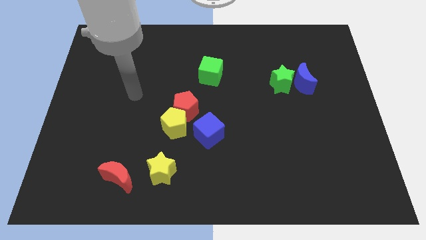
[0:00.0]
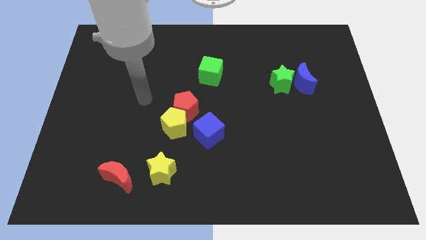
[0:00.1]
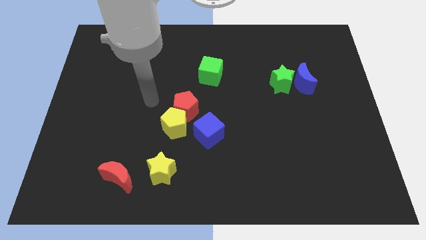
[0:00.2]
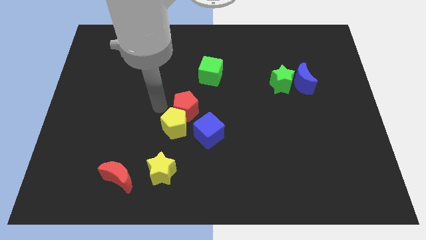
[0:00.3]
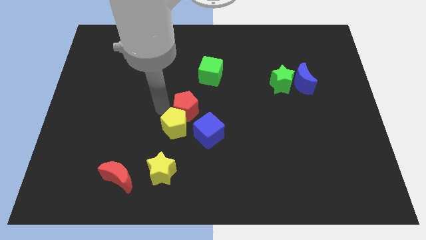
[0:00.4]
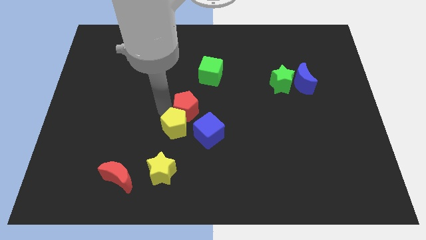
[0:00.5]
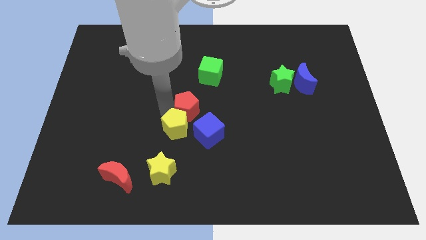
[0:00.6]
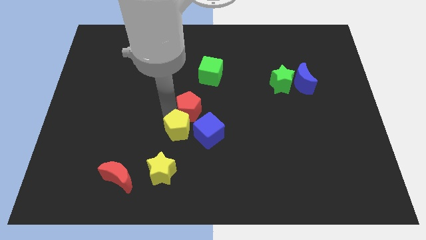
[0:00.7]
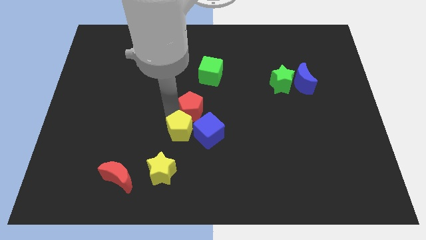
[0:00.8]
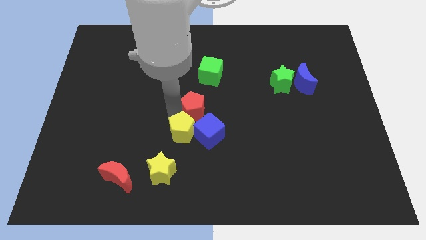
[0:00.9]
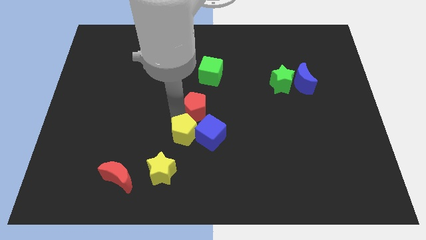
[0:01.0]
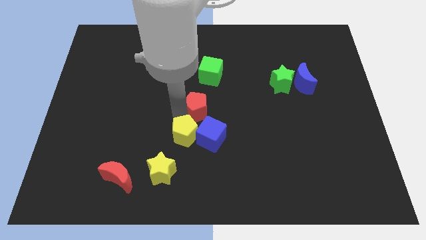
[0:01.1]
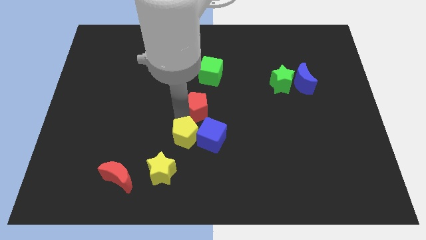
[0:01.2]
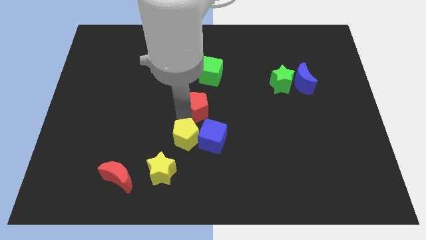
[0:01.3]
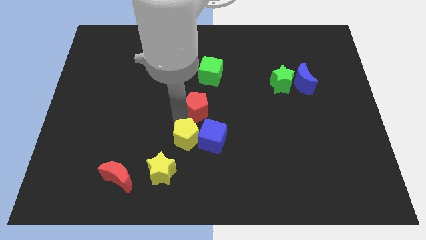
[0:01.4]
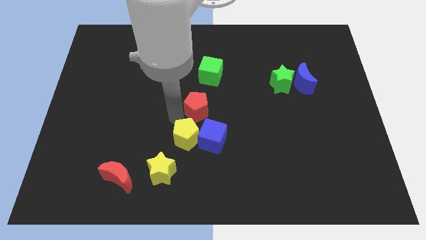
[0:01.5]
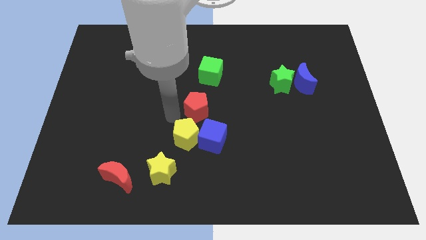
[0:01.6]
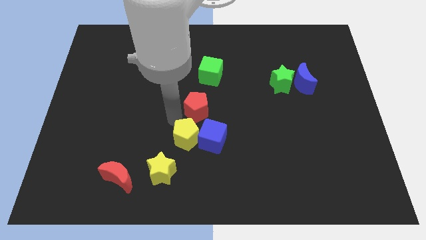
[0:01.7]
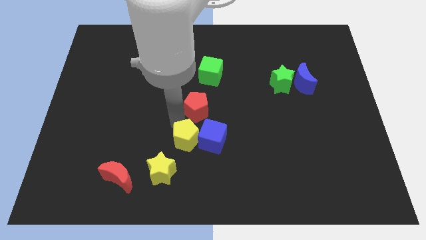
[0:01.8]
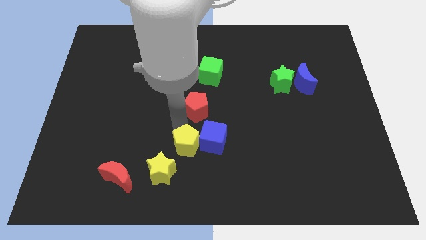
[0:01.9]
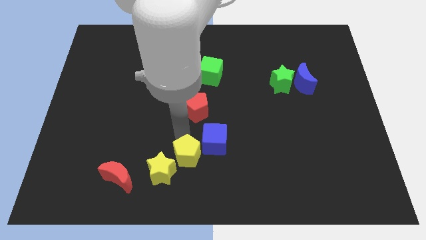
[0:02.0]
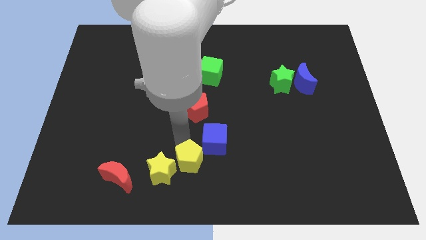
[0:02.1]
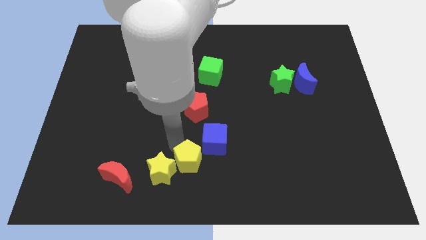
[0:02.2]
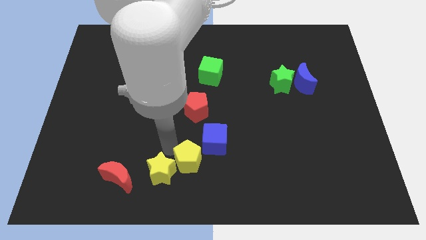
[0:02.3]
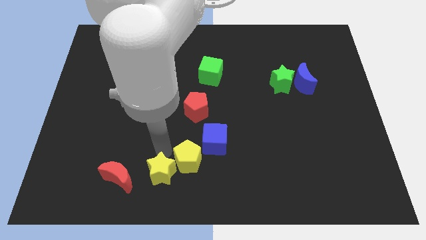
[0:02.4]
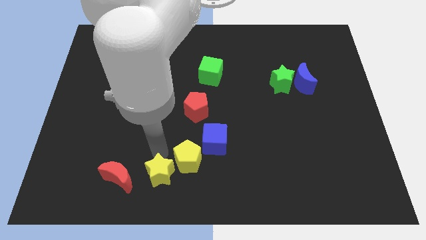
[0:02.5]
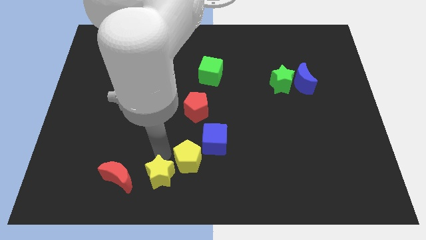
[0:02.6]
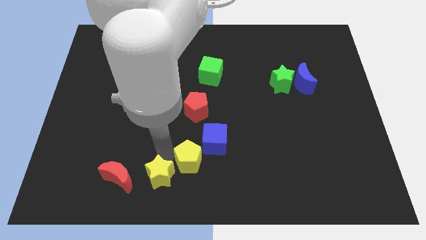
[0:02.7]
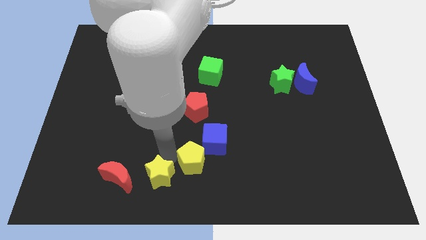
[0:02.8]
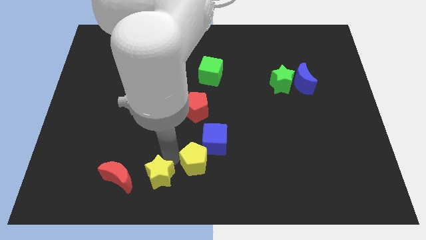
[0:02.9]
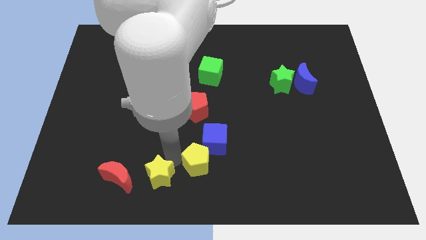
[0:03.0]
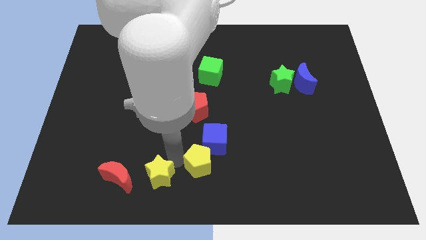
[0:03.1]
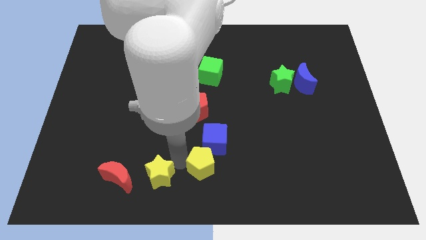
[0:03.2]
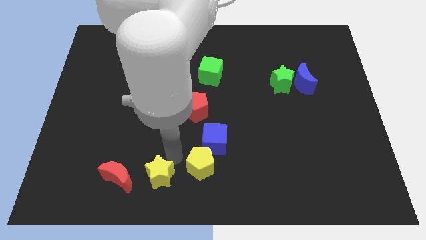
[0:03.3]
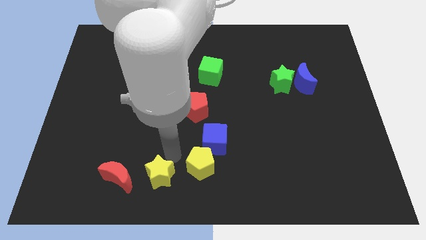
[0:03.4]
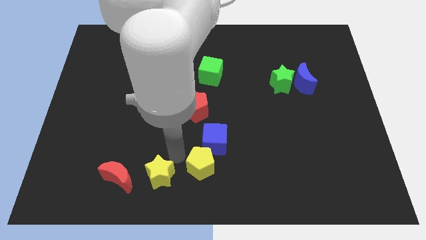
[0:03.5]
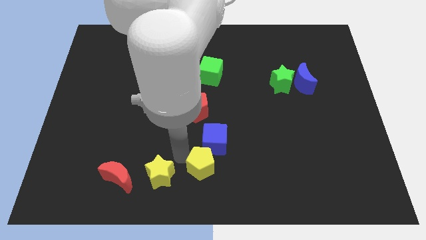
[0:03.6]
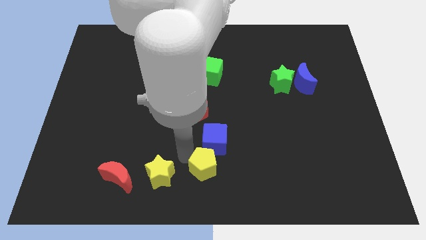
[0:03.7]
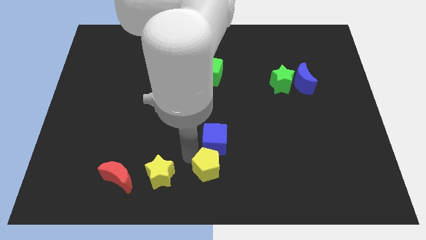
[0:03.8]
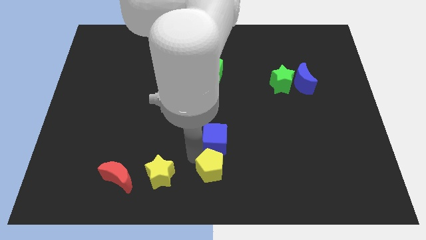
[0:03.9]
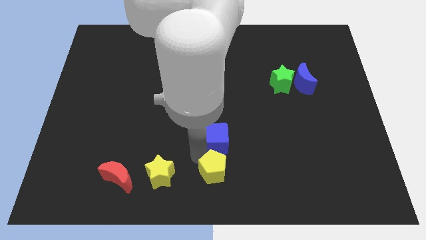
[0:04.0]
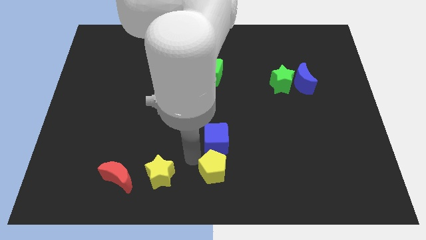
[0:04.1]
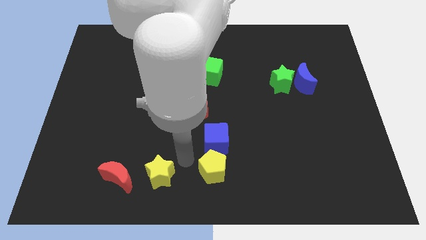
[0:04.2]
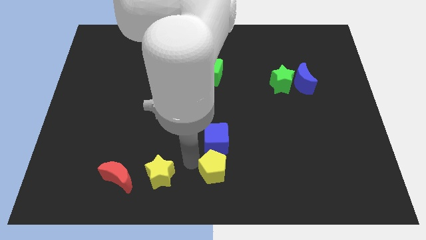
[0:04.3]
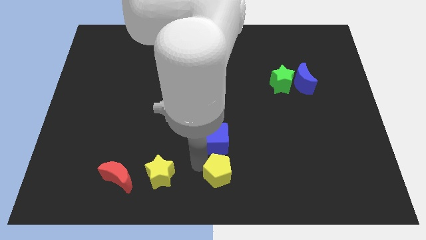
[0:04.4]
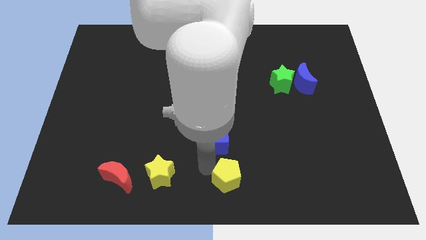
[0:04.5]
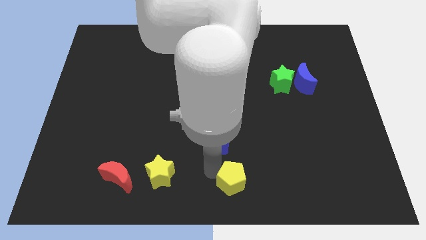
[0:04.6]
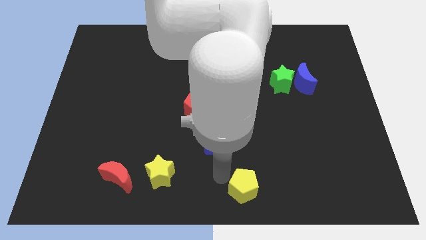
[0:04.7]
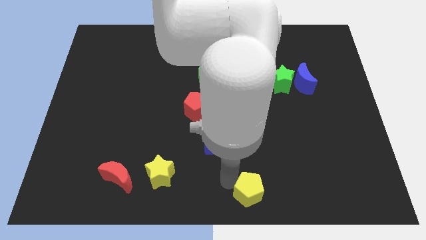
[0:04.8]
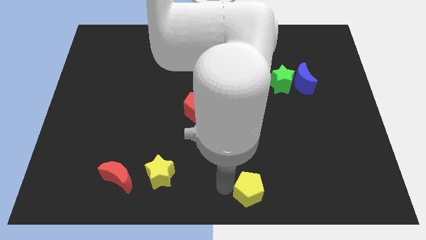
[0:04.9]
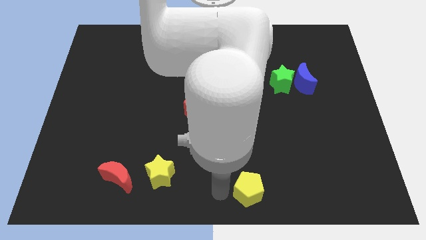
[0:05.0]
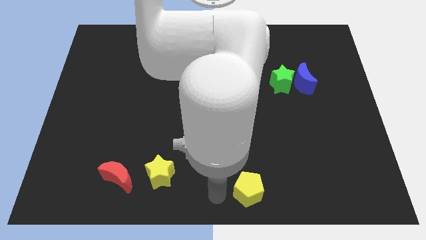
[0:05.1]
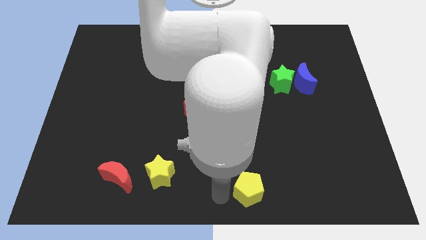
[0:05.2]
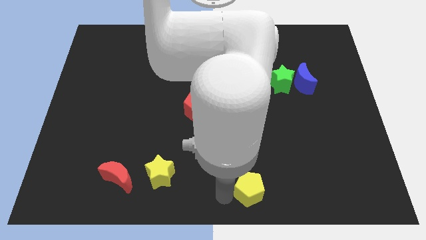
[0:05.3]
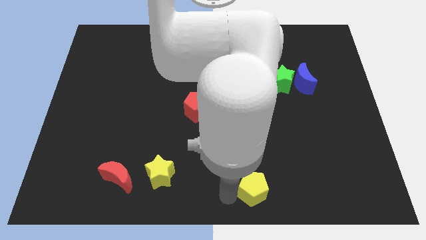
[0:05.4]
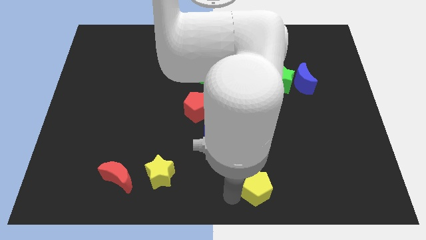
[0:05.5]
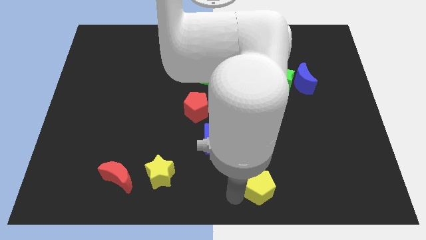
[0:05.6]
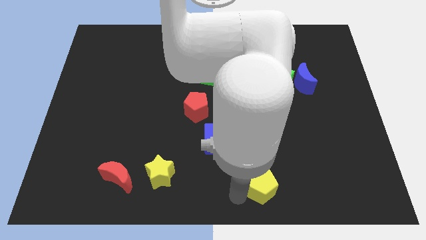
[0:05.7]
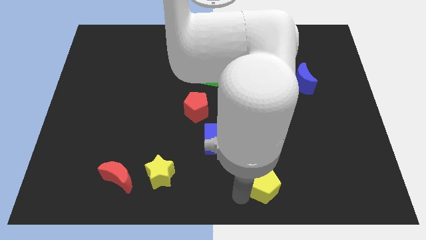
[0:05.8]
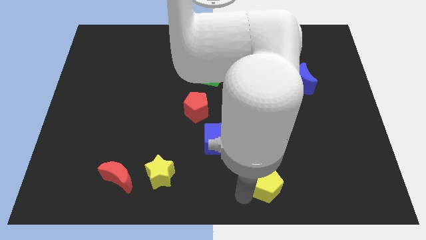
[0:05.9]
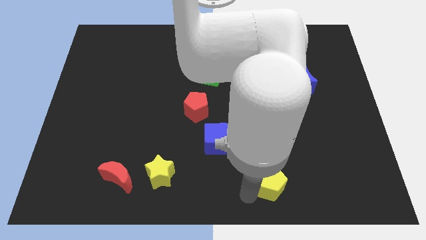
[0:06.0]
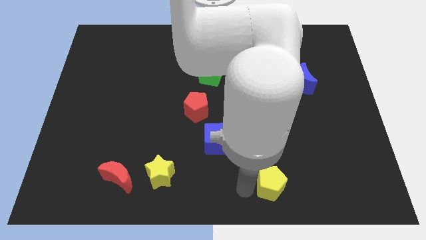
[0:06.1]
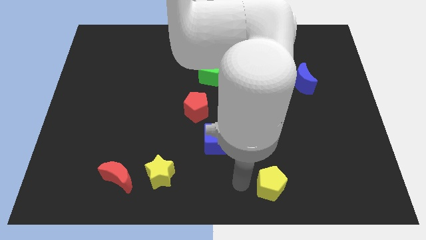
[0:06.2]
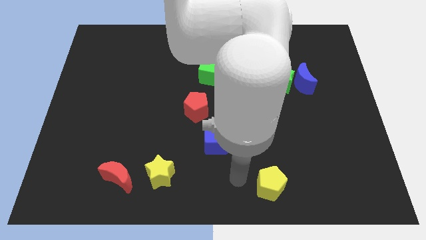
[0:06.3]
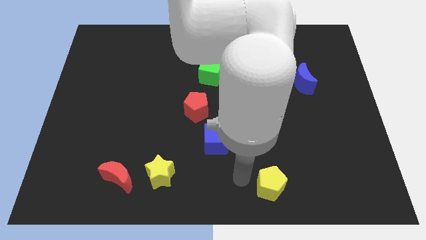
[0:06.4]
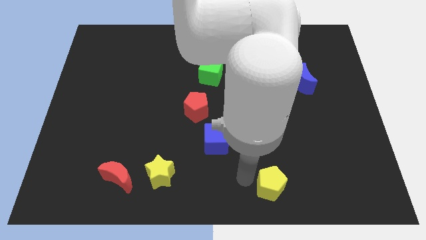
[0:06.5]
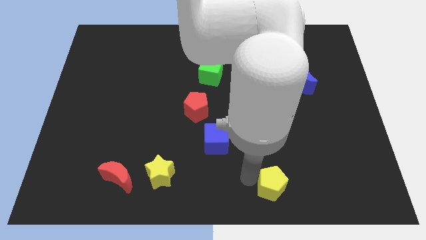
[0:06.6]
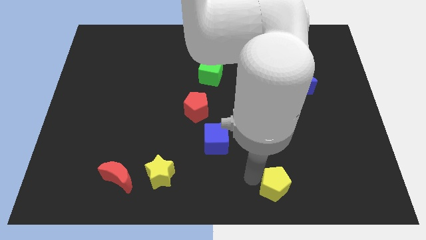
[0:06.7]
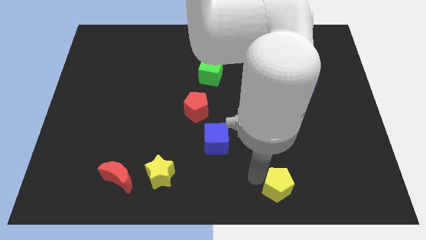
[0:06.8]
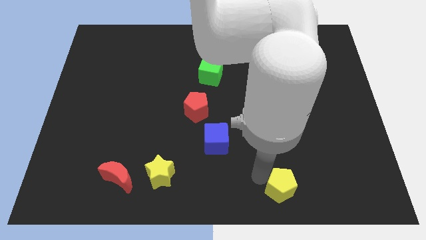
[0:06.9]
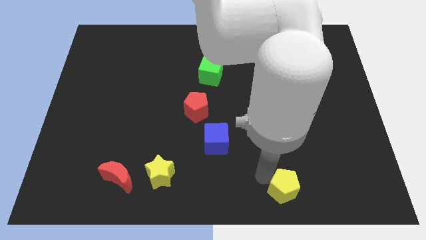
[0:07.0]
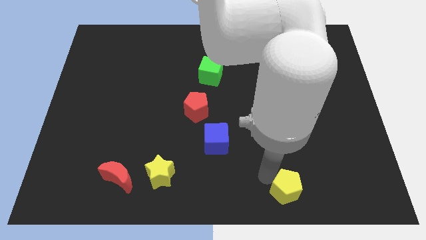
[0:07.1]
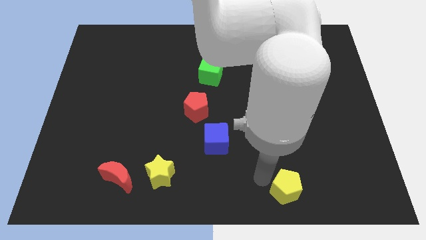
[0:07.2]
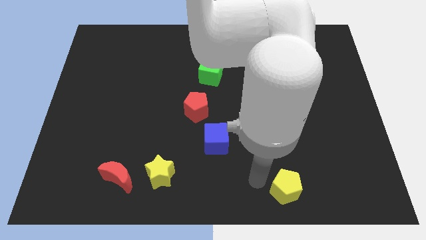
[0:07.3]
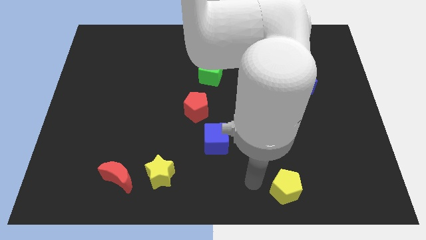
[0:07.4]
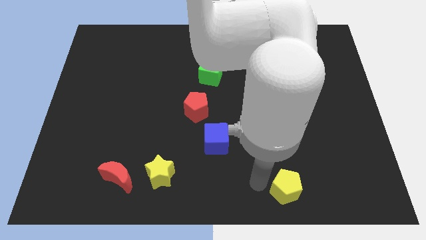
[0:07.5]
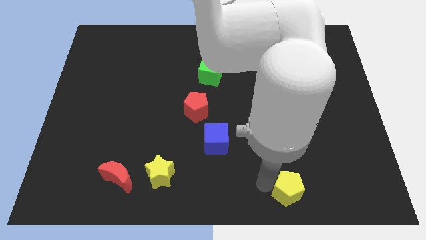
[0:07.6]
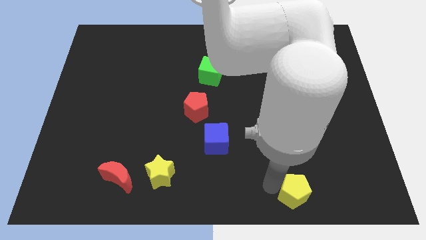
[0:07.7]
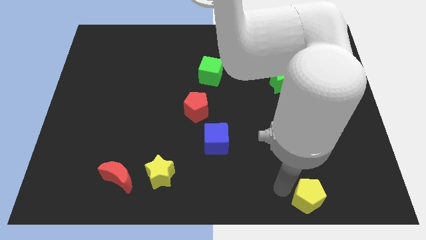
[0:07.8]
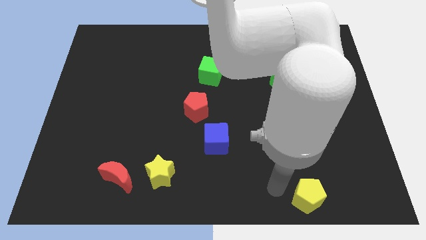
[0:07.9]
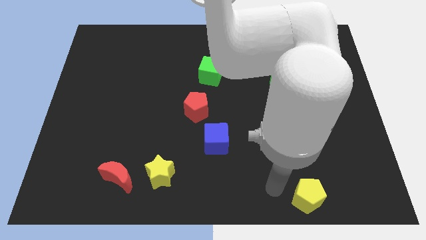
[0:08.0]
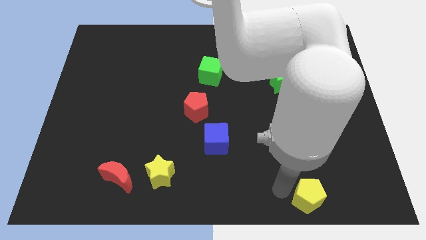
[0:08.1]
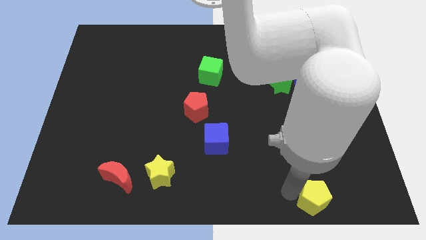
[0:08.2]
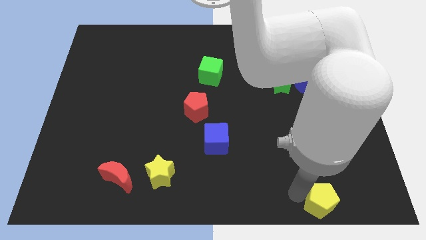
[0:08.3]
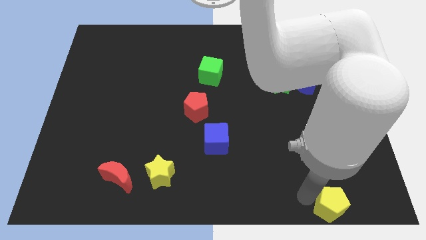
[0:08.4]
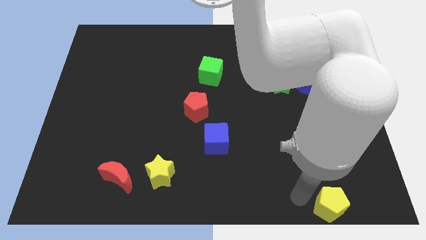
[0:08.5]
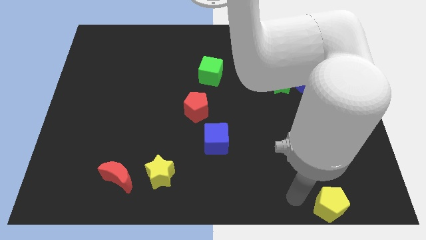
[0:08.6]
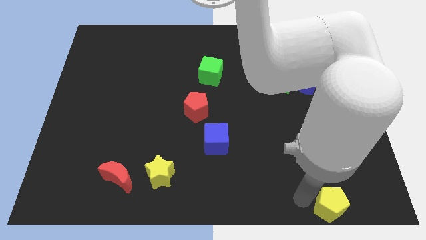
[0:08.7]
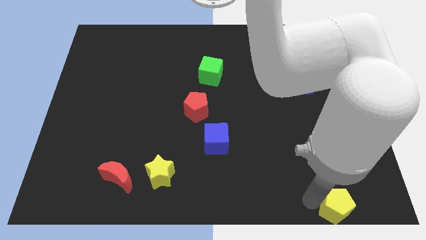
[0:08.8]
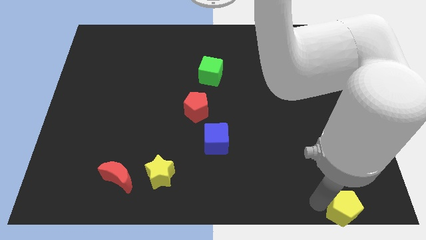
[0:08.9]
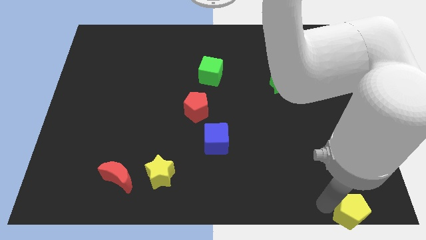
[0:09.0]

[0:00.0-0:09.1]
move the yellow pentagon to the lower right corner
